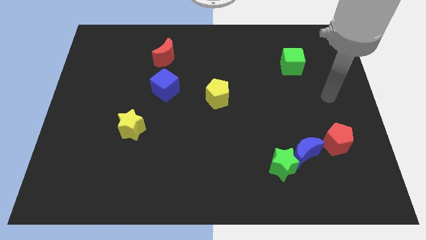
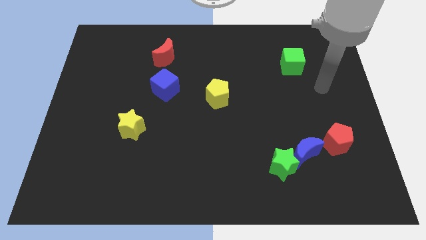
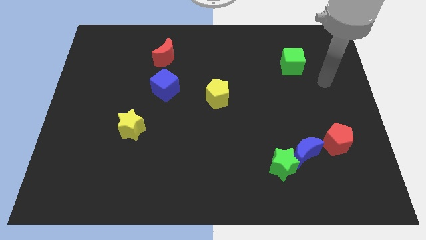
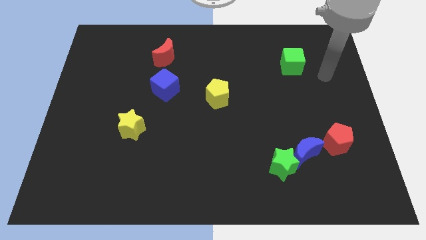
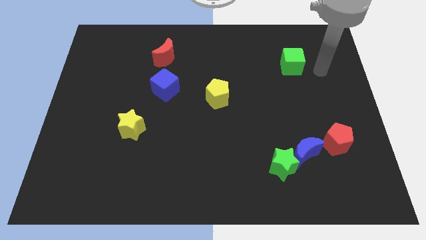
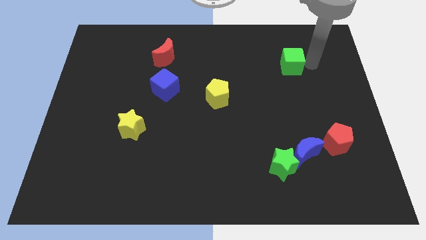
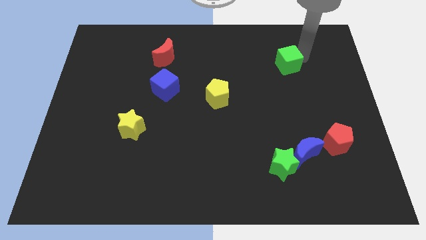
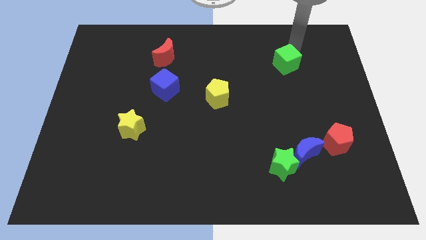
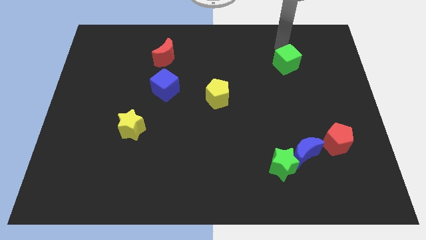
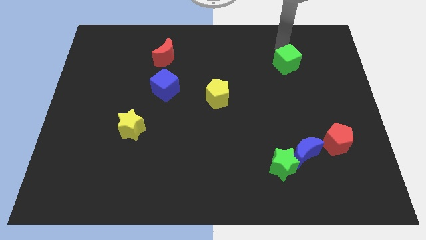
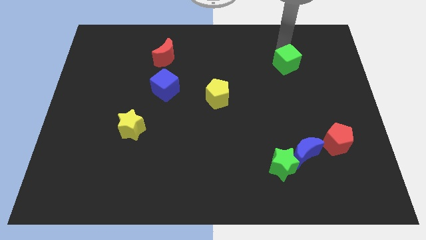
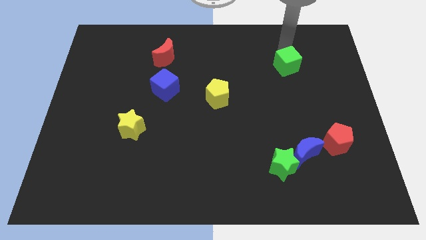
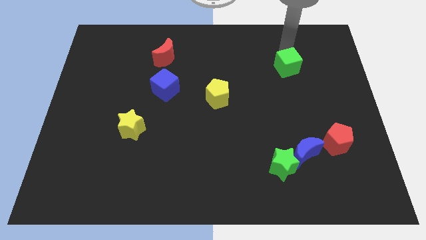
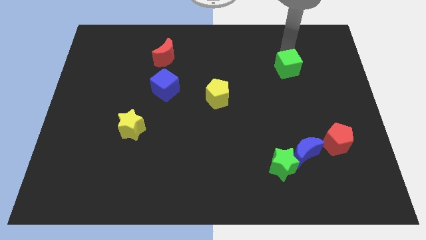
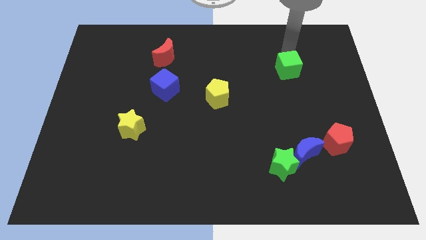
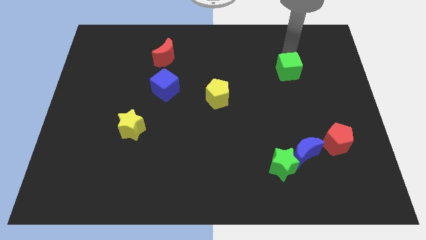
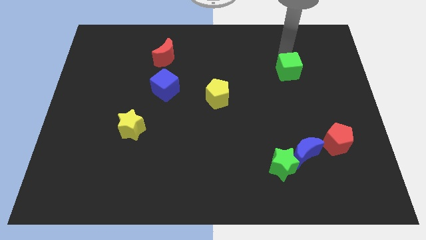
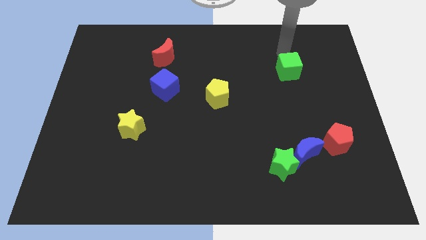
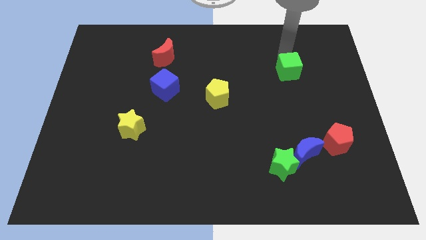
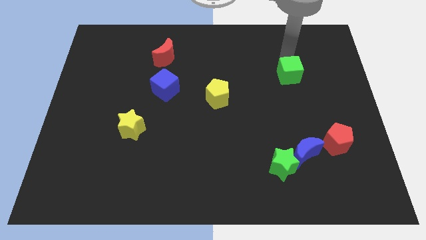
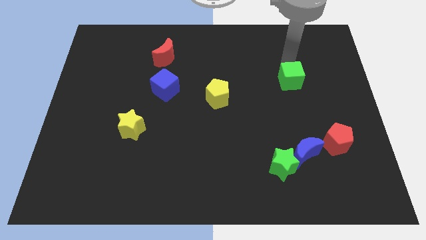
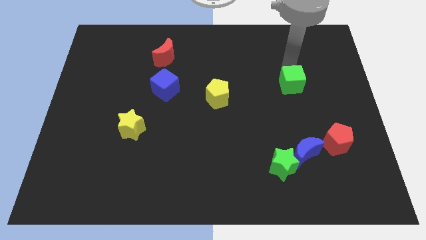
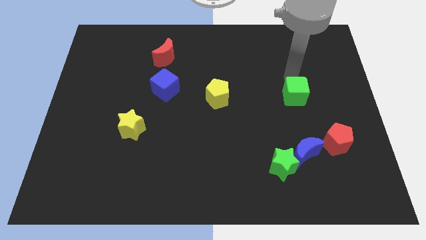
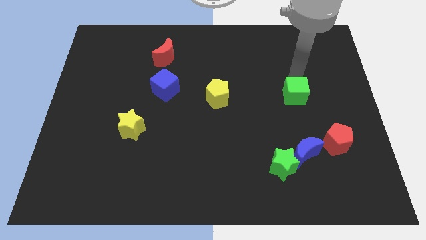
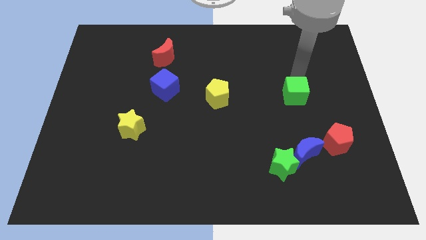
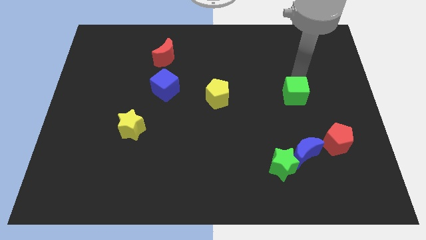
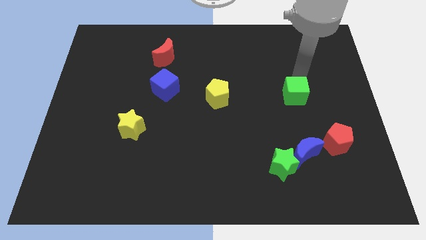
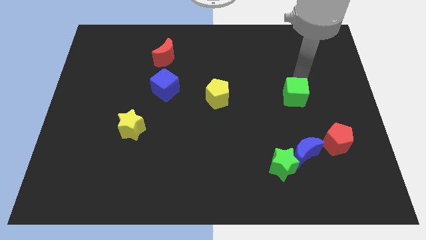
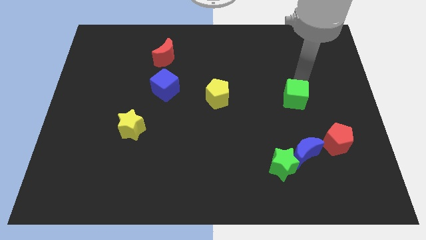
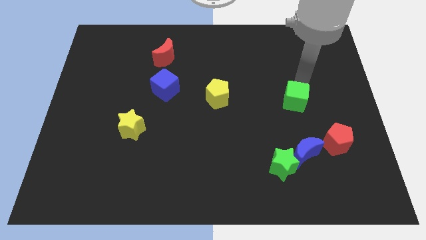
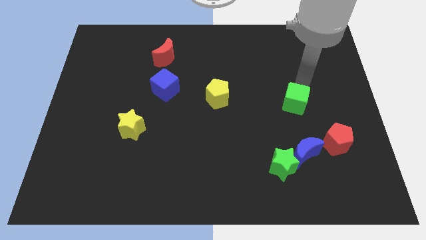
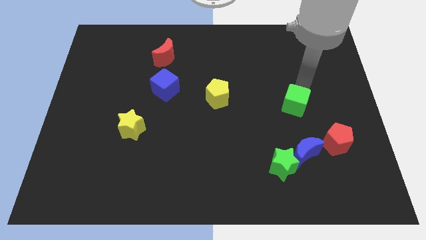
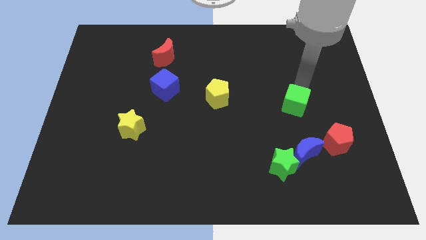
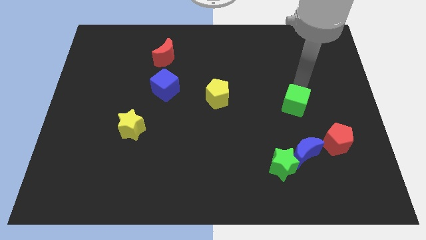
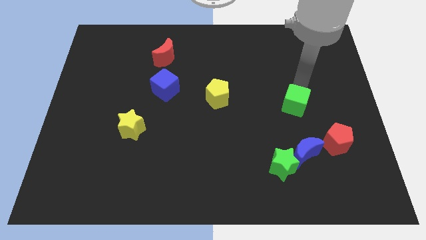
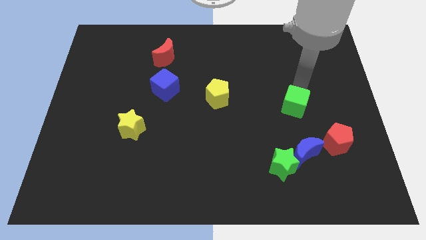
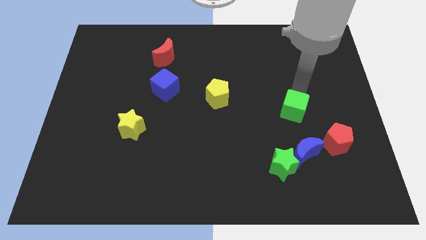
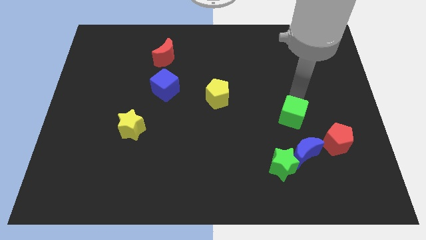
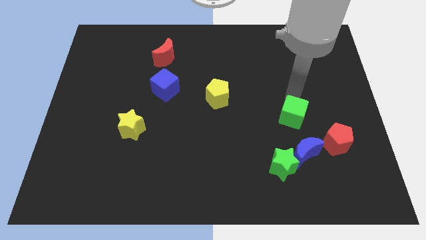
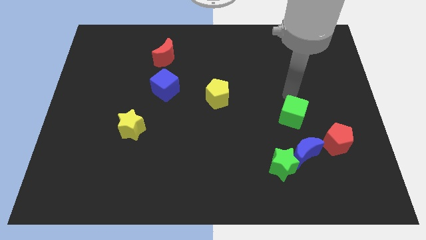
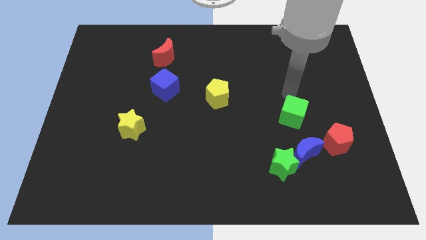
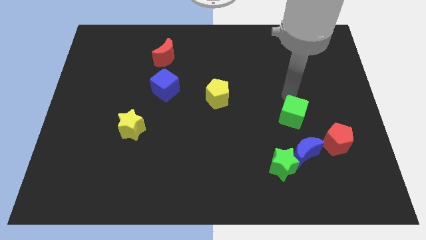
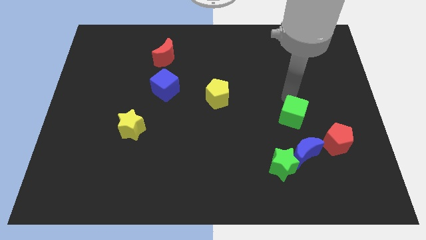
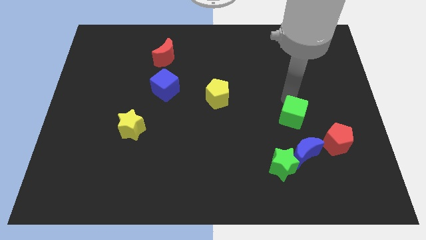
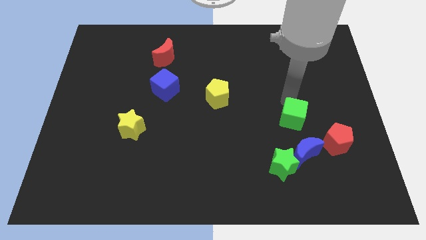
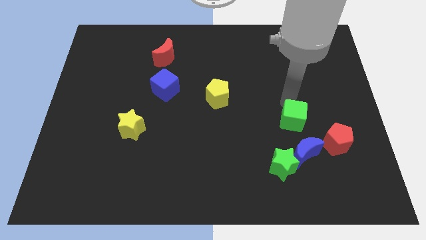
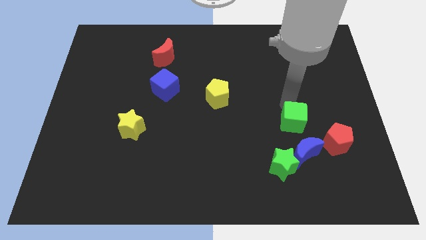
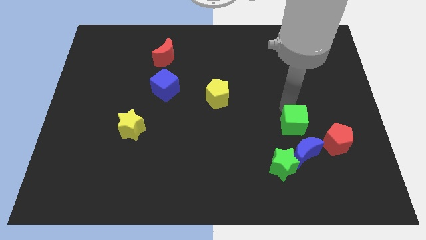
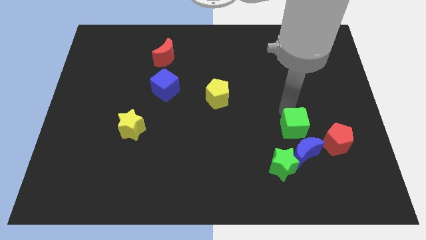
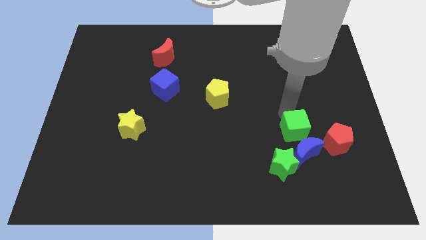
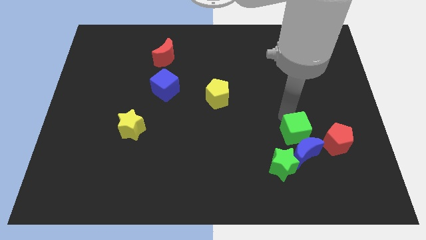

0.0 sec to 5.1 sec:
push the green cube close to the blue moon

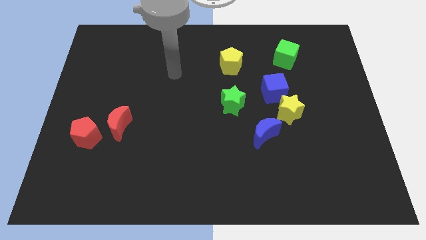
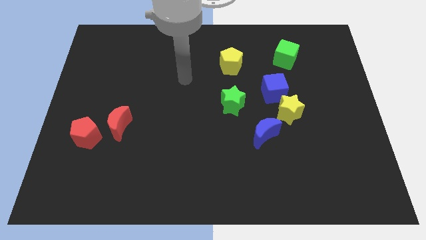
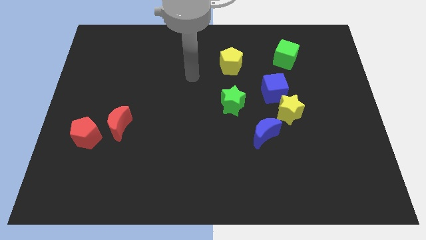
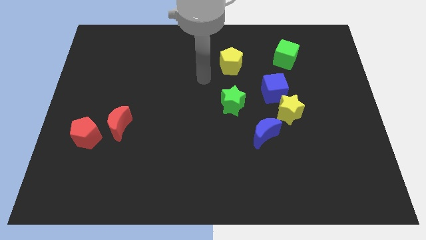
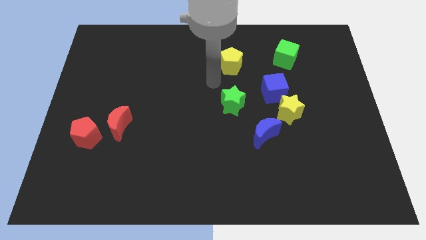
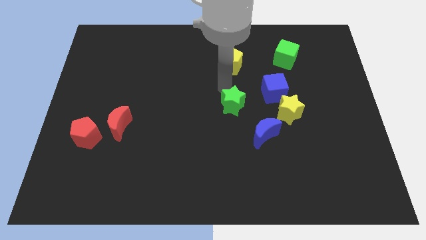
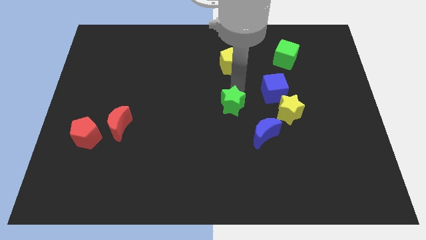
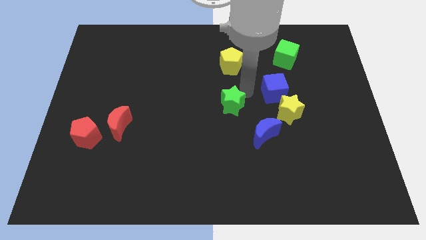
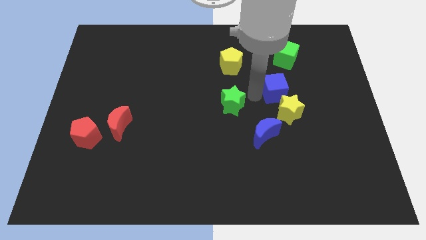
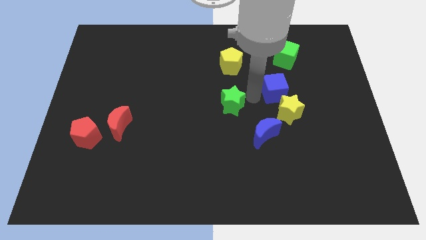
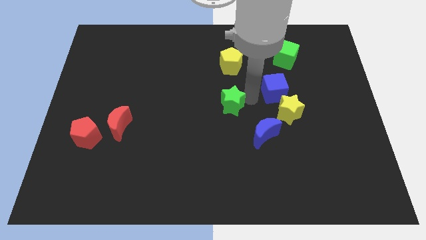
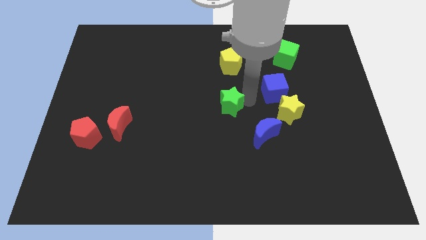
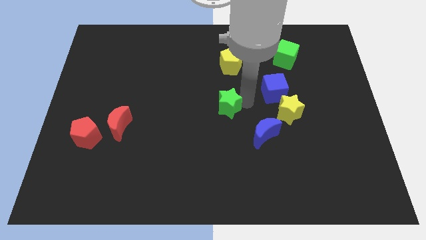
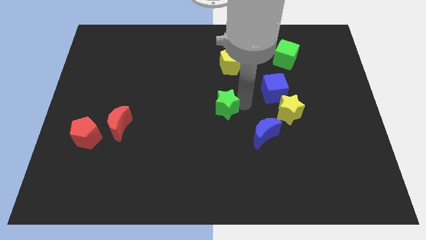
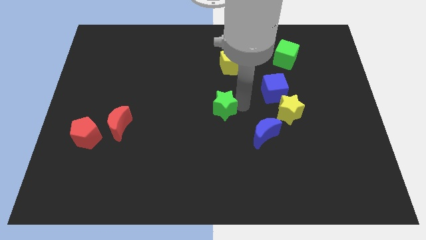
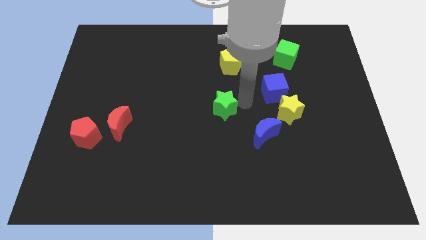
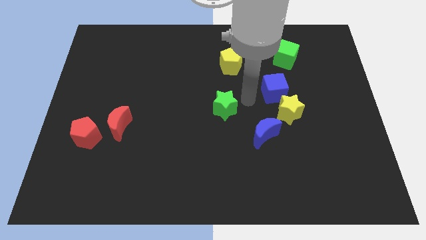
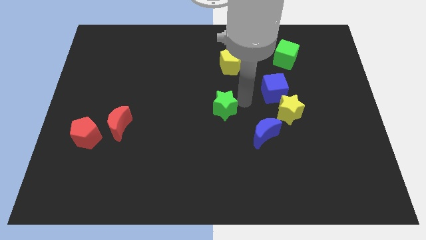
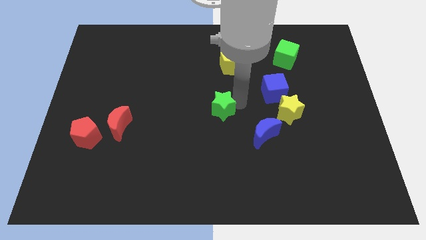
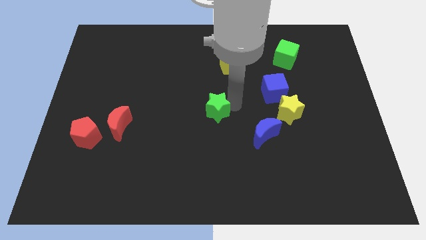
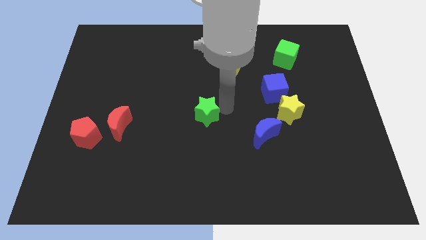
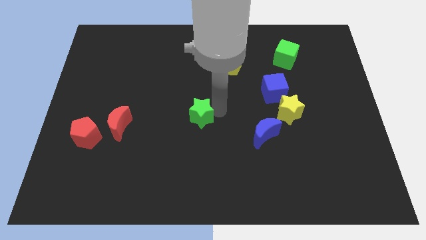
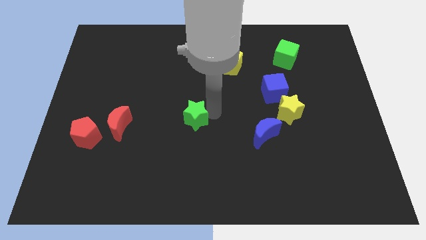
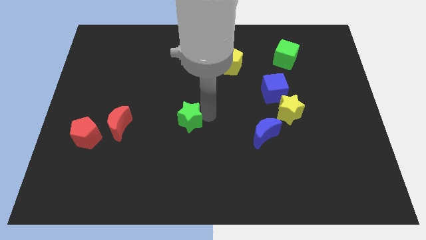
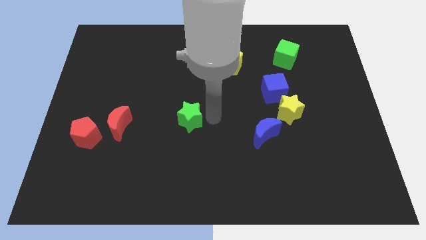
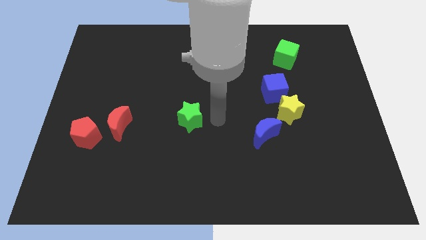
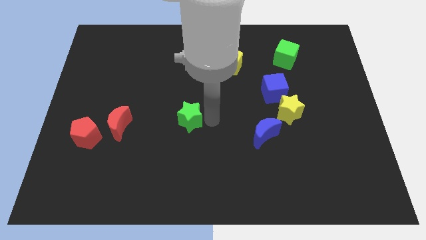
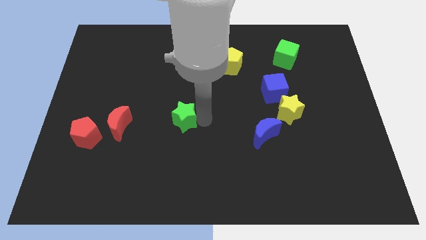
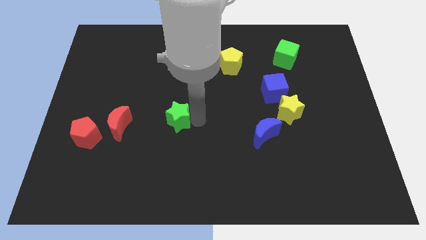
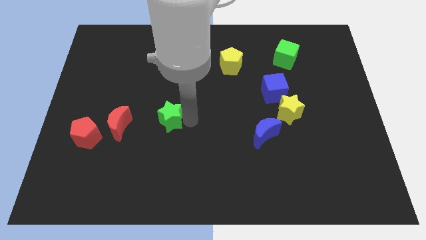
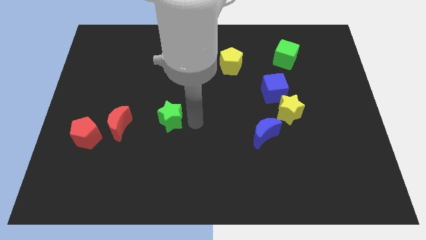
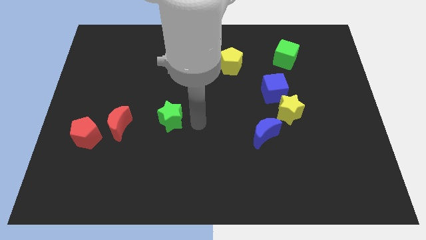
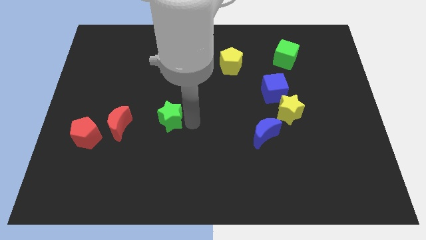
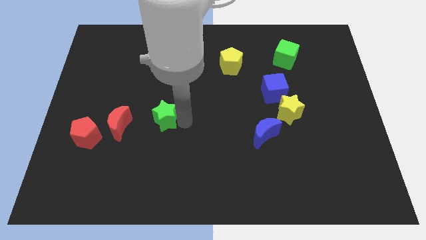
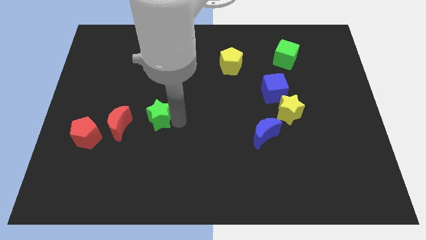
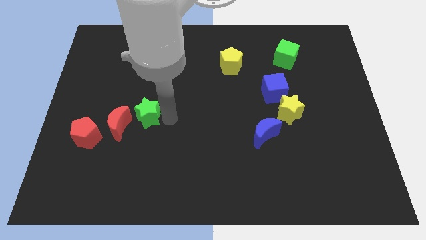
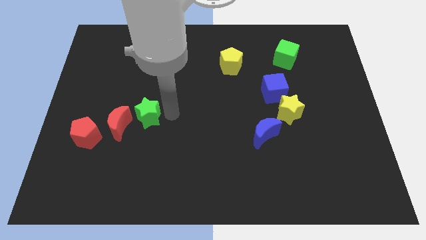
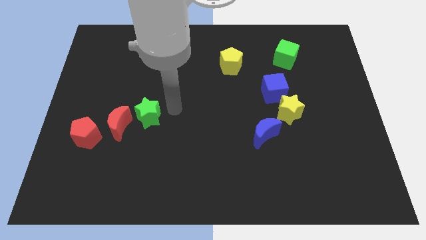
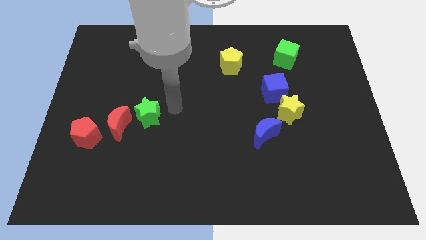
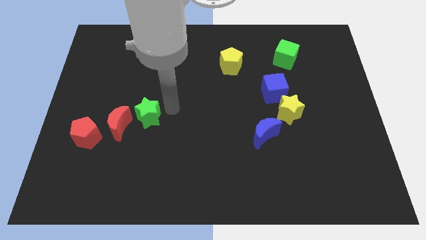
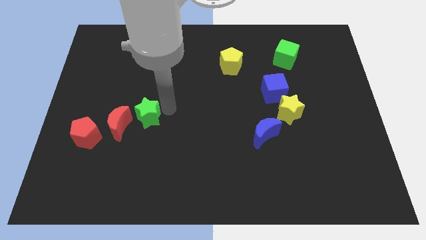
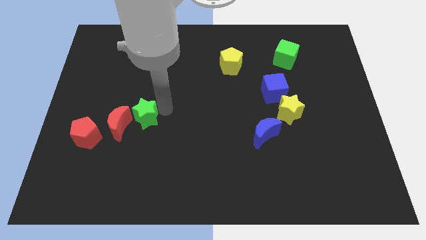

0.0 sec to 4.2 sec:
push the green star towards the red moon
